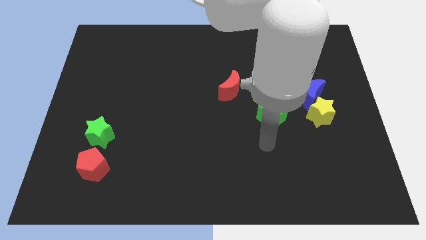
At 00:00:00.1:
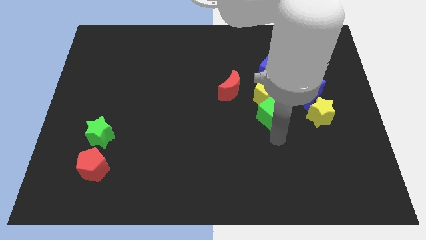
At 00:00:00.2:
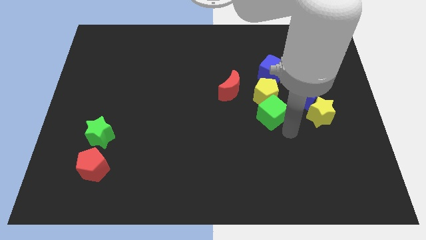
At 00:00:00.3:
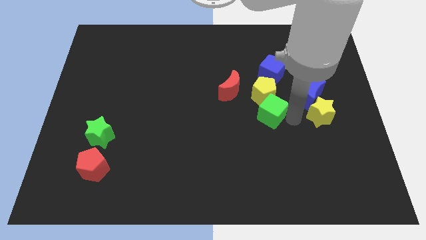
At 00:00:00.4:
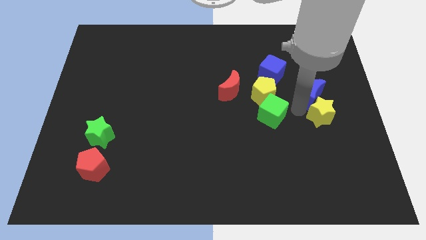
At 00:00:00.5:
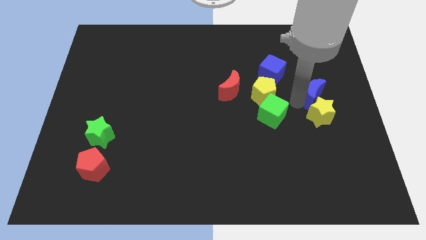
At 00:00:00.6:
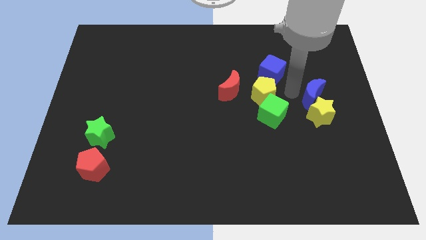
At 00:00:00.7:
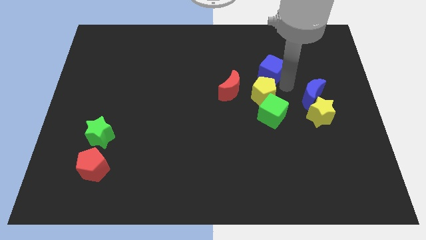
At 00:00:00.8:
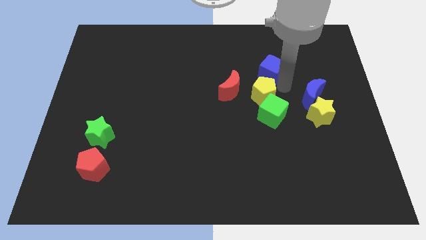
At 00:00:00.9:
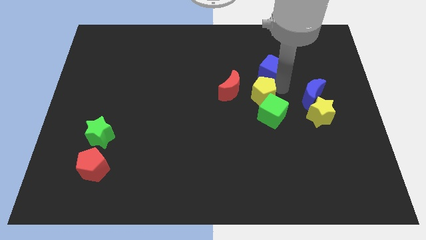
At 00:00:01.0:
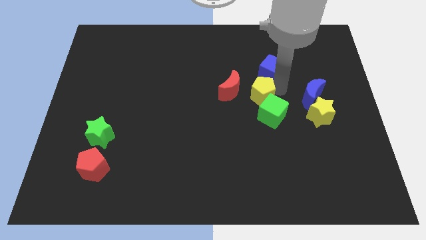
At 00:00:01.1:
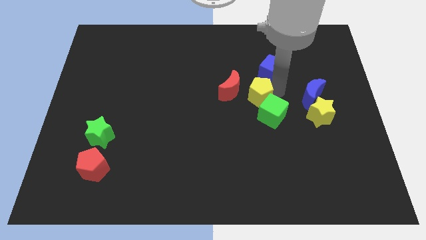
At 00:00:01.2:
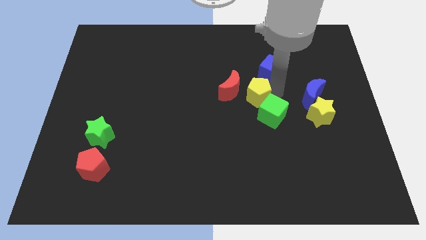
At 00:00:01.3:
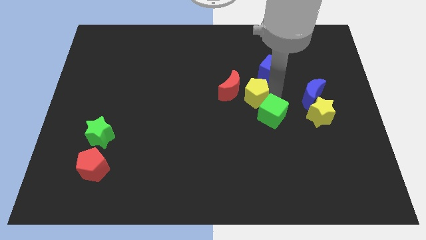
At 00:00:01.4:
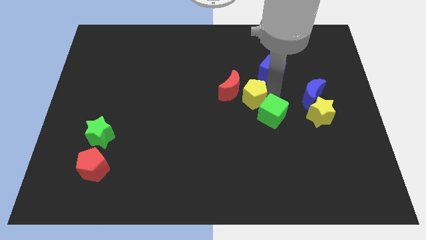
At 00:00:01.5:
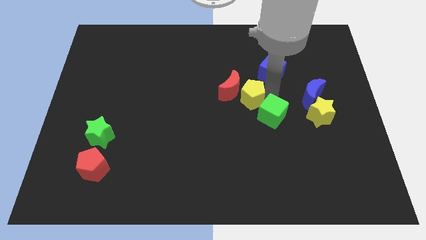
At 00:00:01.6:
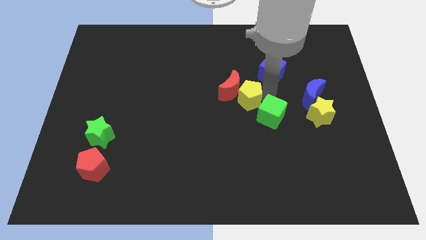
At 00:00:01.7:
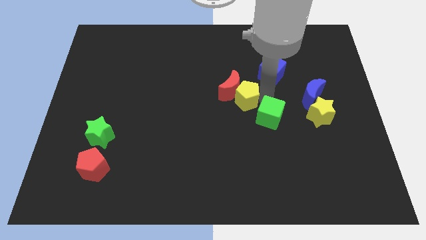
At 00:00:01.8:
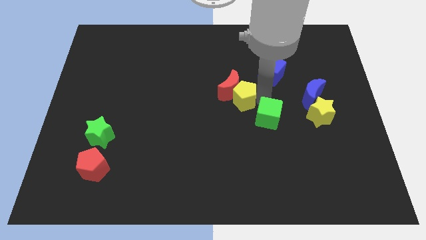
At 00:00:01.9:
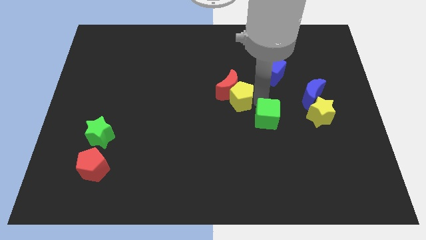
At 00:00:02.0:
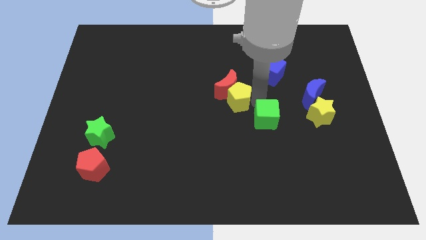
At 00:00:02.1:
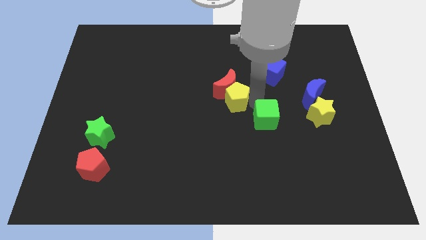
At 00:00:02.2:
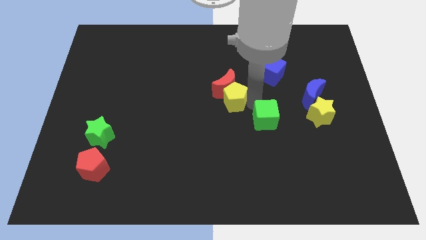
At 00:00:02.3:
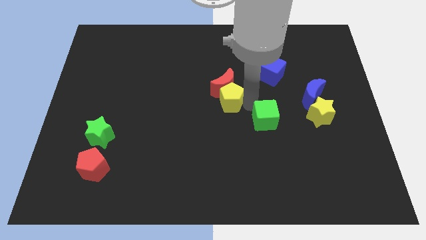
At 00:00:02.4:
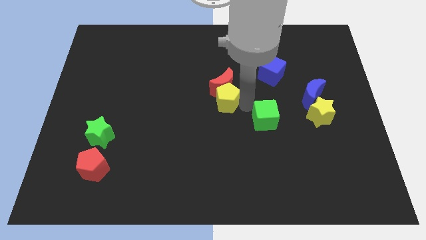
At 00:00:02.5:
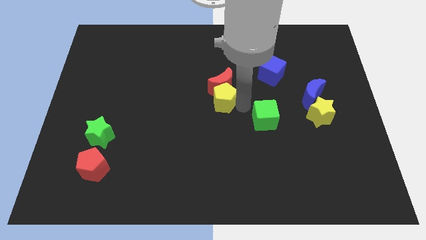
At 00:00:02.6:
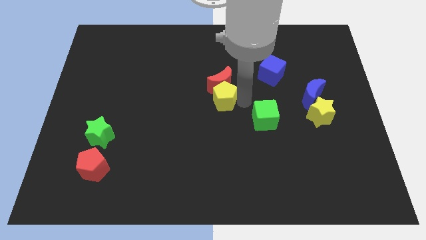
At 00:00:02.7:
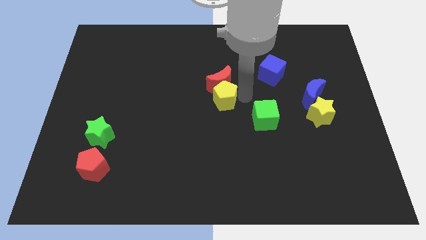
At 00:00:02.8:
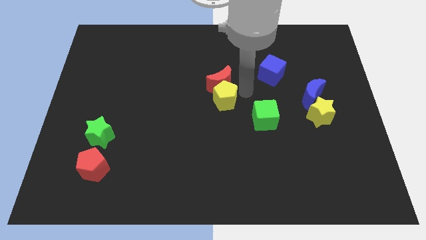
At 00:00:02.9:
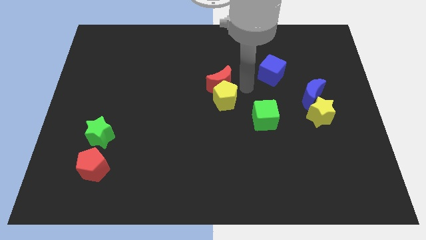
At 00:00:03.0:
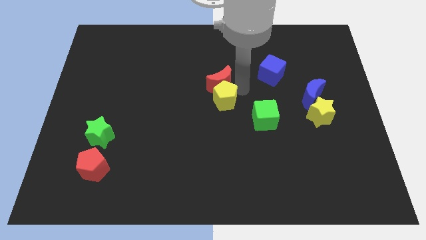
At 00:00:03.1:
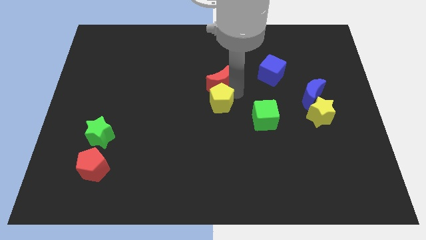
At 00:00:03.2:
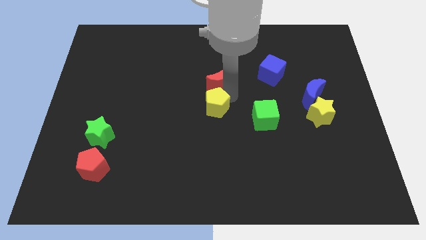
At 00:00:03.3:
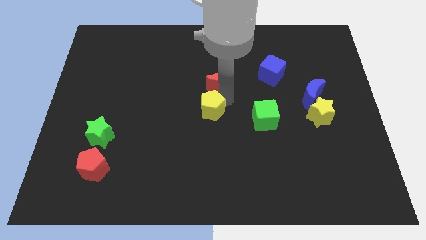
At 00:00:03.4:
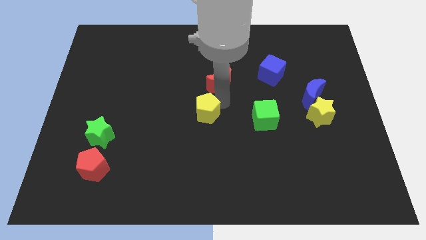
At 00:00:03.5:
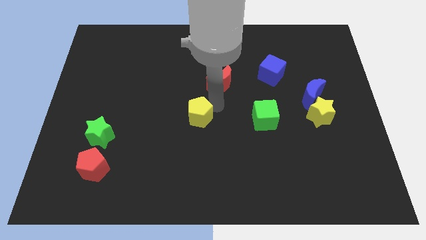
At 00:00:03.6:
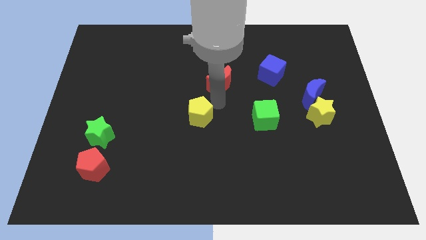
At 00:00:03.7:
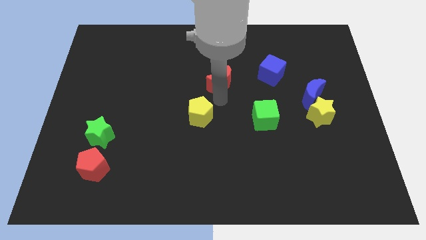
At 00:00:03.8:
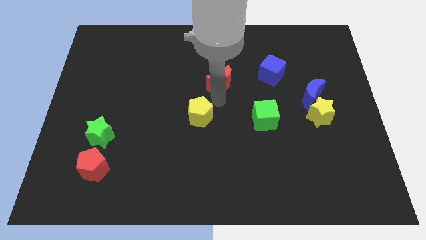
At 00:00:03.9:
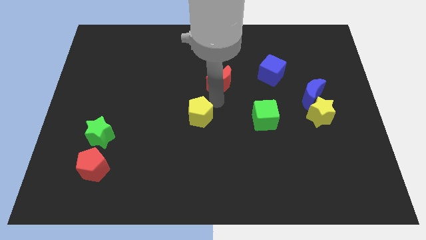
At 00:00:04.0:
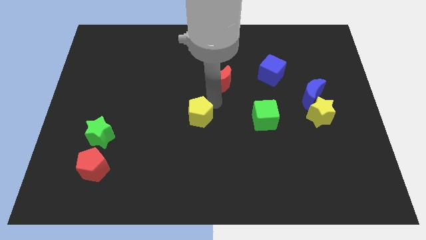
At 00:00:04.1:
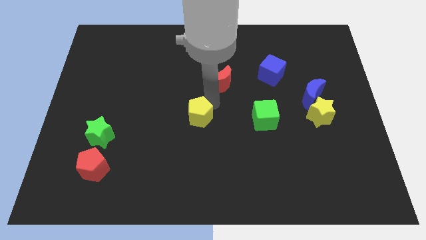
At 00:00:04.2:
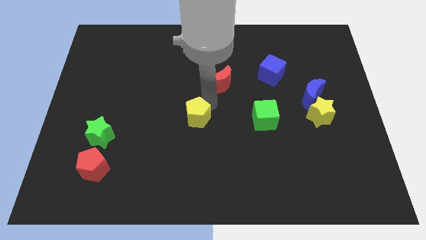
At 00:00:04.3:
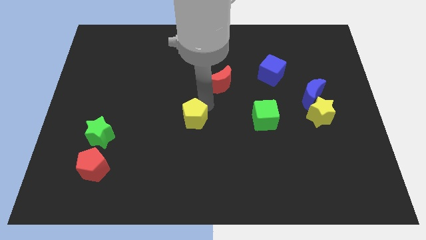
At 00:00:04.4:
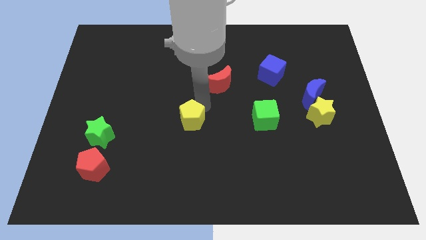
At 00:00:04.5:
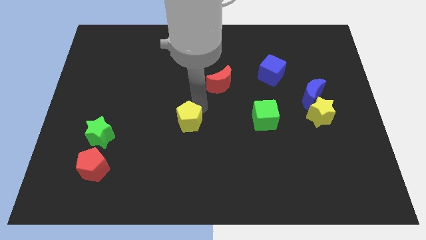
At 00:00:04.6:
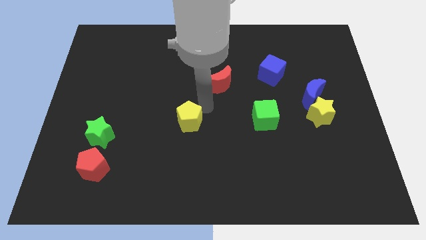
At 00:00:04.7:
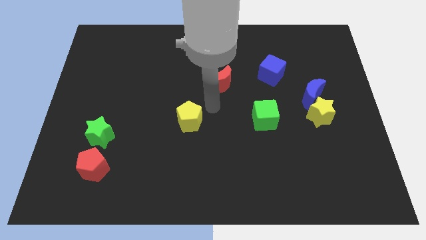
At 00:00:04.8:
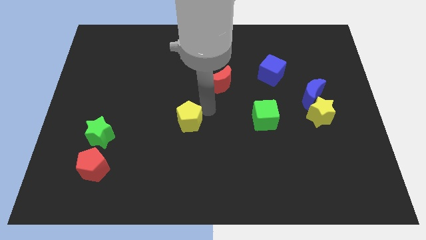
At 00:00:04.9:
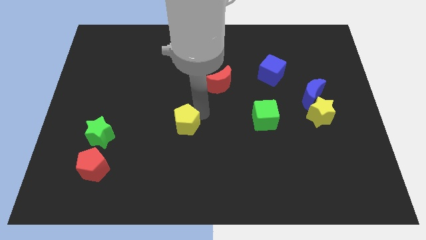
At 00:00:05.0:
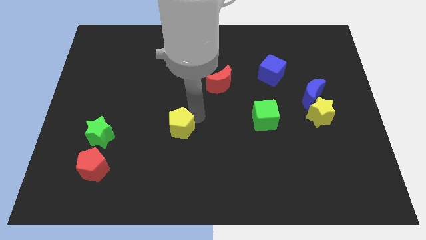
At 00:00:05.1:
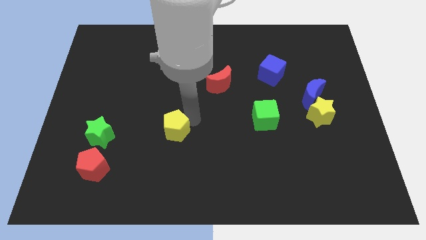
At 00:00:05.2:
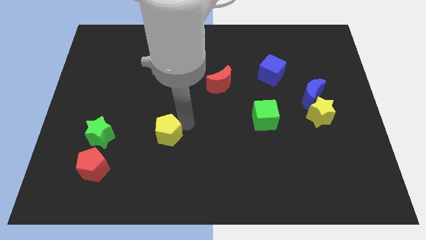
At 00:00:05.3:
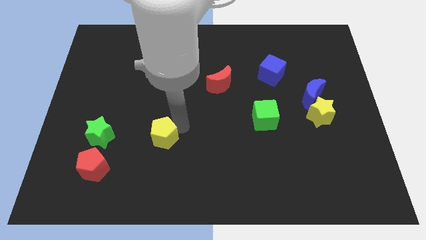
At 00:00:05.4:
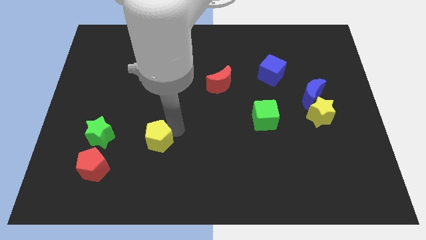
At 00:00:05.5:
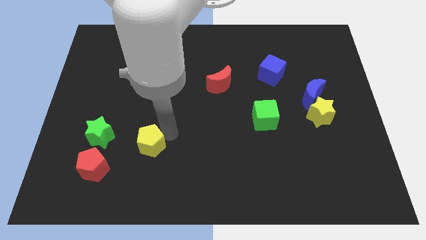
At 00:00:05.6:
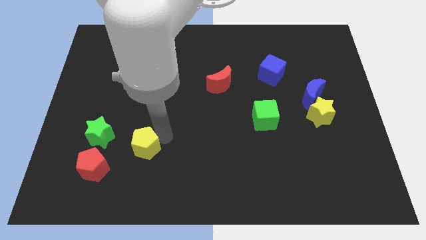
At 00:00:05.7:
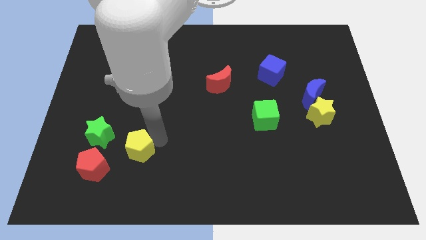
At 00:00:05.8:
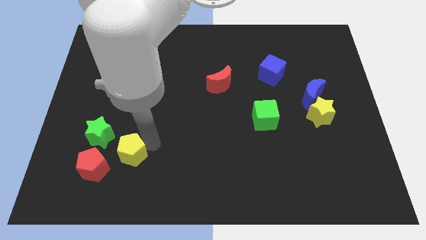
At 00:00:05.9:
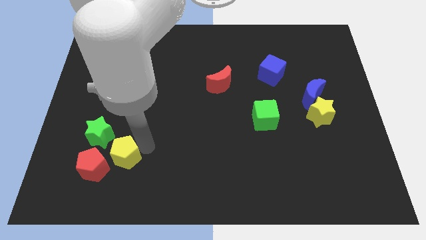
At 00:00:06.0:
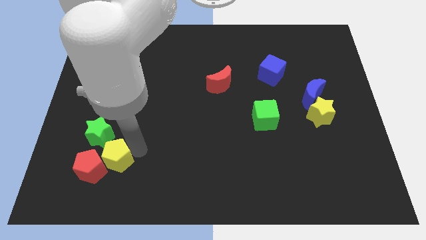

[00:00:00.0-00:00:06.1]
push the yellow pentagon to the red pentagon

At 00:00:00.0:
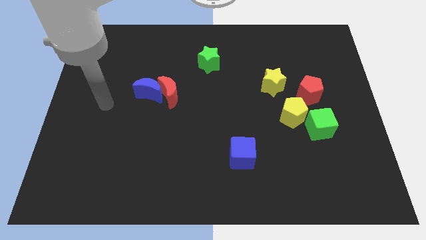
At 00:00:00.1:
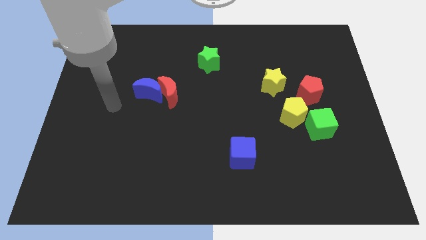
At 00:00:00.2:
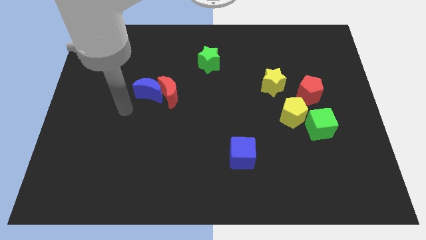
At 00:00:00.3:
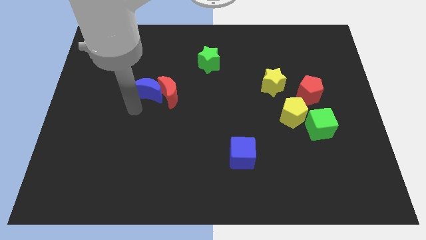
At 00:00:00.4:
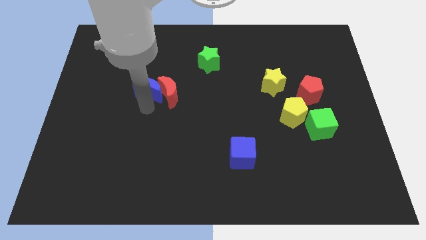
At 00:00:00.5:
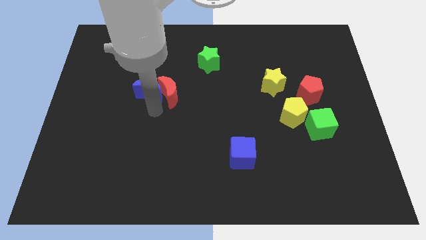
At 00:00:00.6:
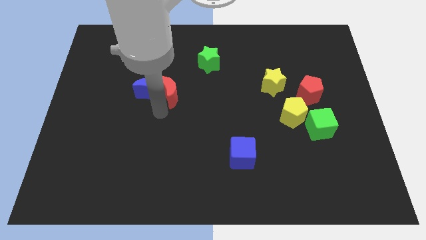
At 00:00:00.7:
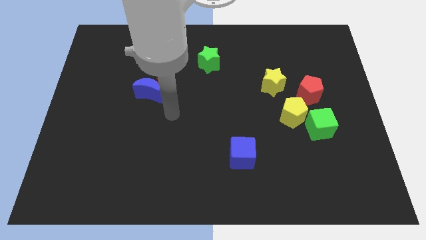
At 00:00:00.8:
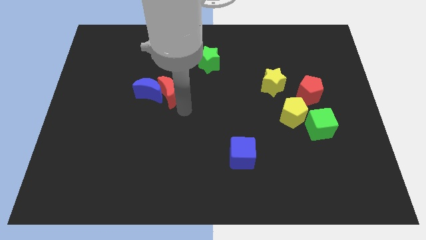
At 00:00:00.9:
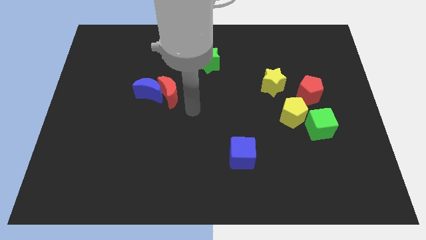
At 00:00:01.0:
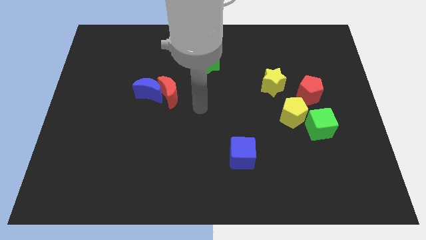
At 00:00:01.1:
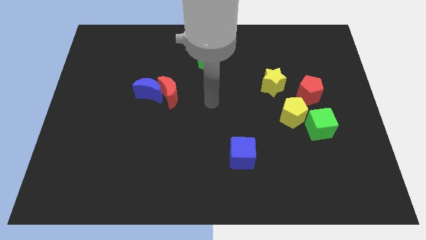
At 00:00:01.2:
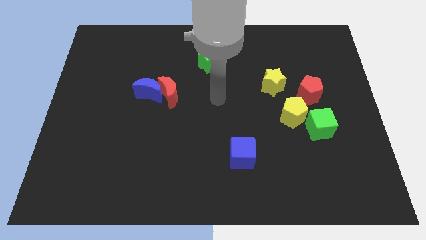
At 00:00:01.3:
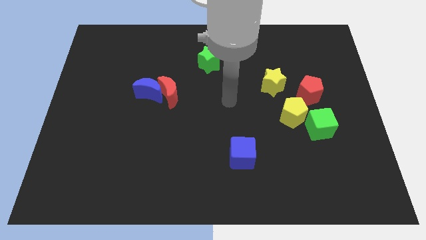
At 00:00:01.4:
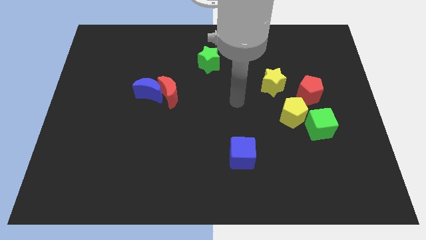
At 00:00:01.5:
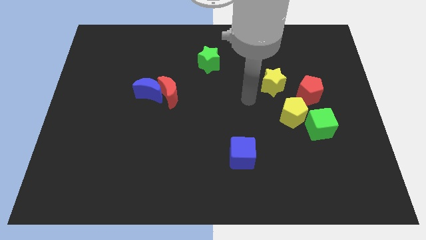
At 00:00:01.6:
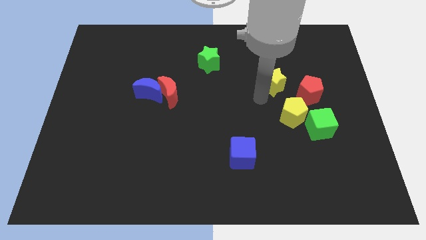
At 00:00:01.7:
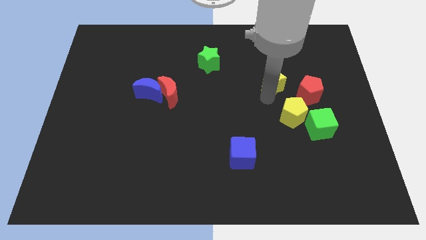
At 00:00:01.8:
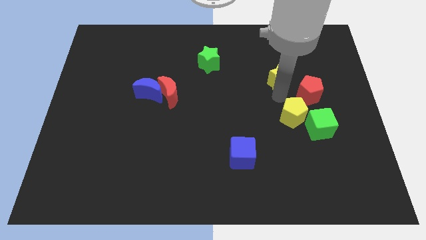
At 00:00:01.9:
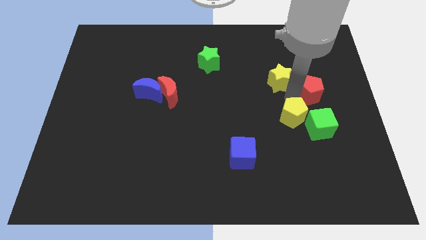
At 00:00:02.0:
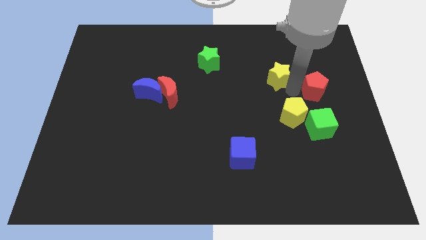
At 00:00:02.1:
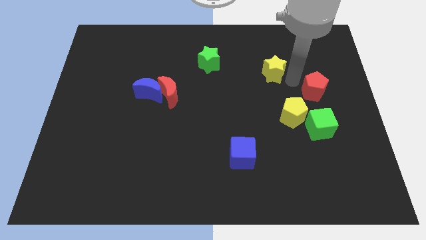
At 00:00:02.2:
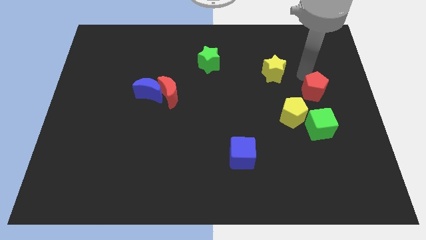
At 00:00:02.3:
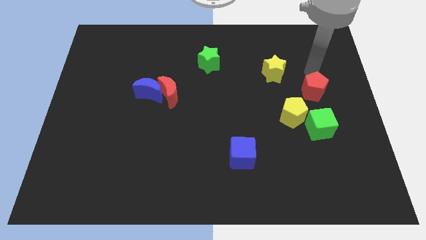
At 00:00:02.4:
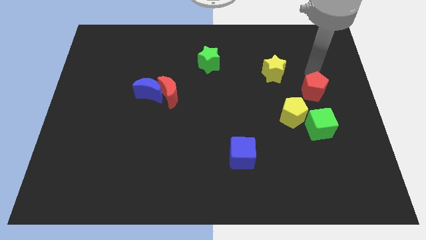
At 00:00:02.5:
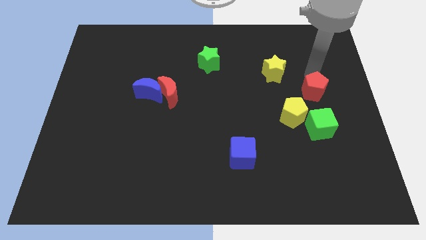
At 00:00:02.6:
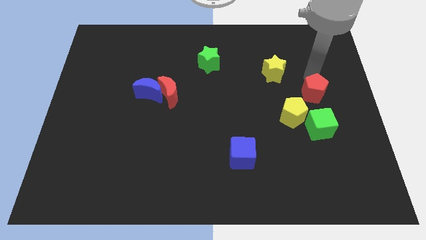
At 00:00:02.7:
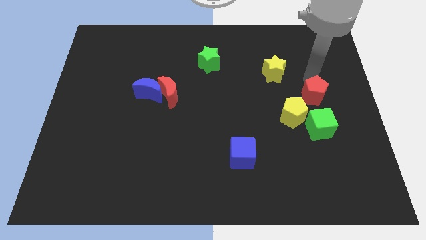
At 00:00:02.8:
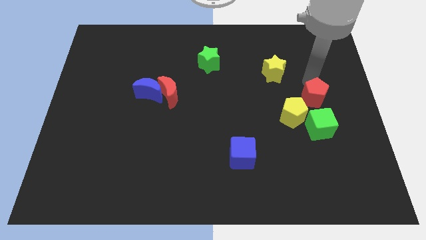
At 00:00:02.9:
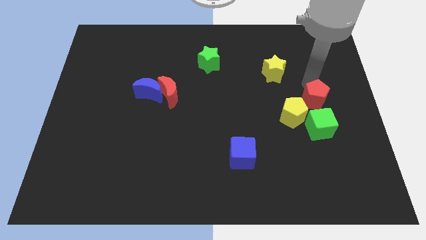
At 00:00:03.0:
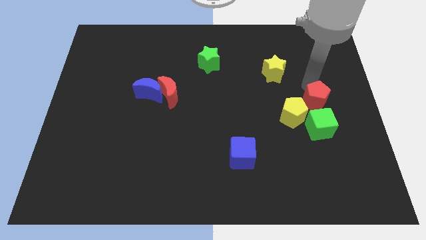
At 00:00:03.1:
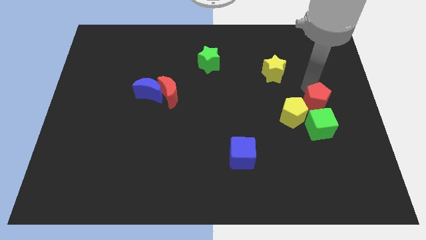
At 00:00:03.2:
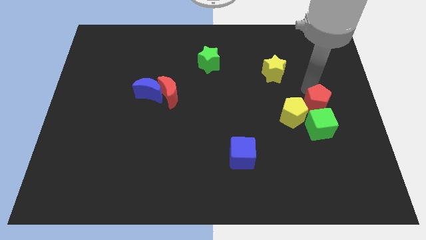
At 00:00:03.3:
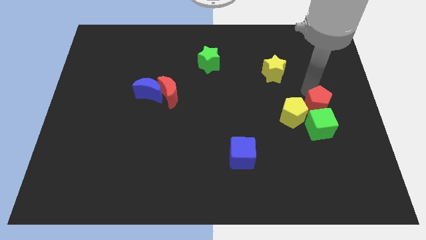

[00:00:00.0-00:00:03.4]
push the red pentagon next to the green cube
